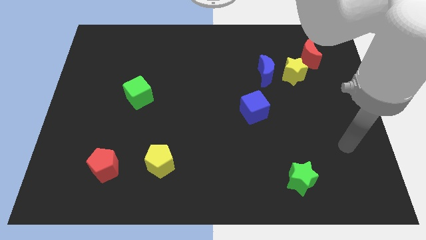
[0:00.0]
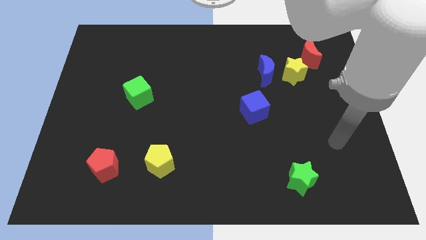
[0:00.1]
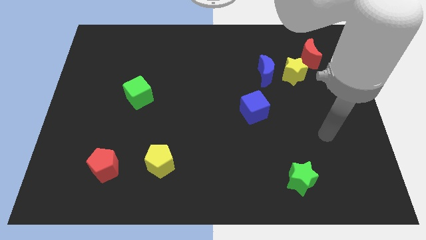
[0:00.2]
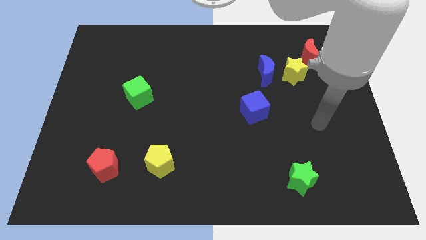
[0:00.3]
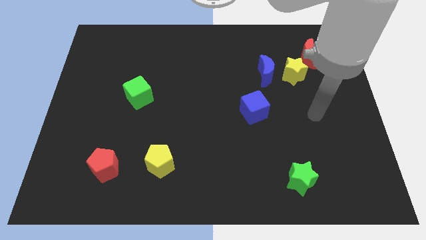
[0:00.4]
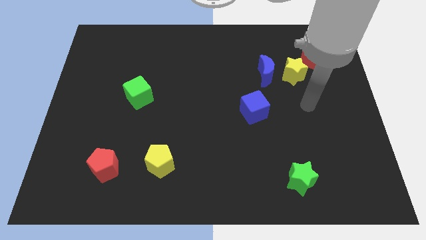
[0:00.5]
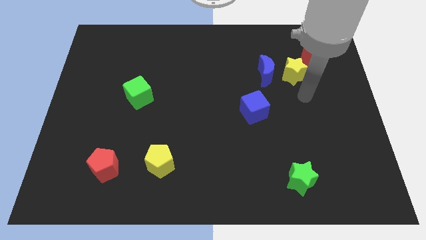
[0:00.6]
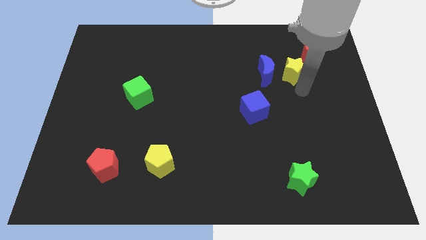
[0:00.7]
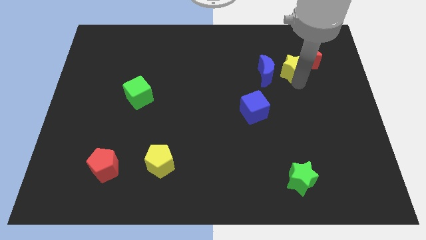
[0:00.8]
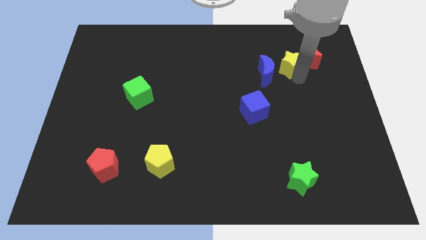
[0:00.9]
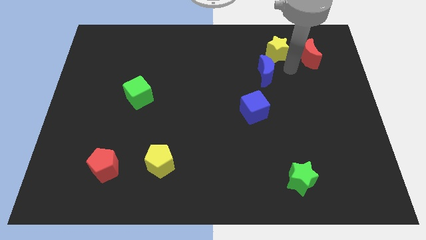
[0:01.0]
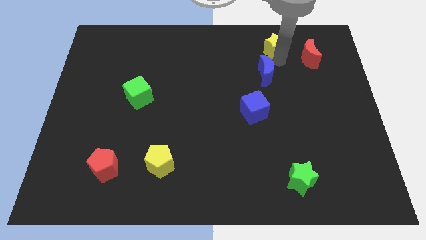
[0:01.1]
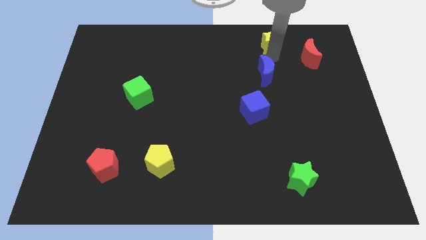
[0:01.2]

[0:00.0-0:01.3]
move the blue moon away from the yellow star

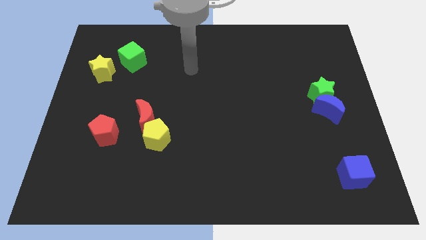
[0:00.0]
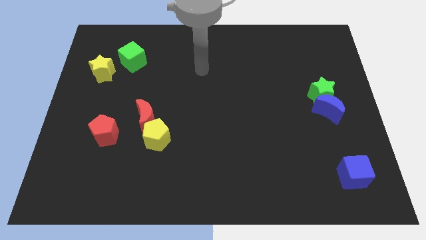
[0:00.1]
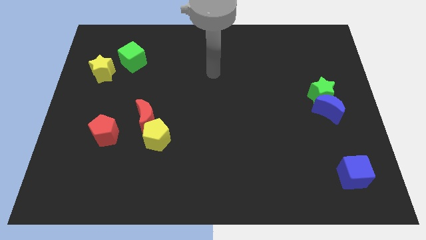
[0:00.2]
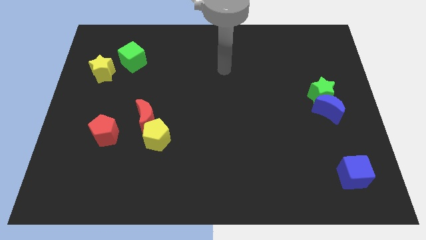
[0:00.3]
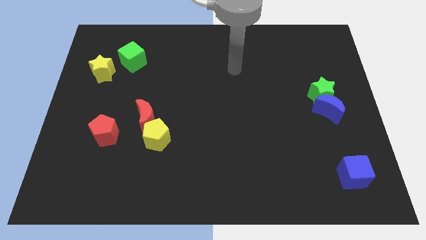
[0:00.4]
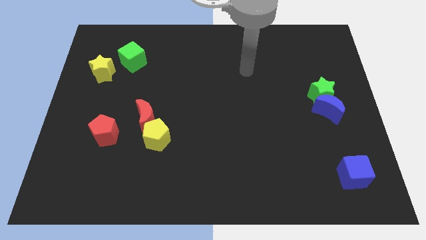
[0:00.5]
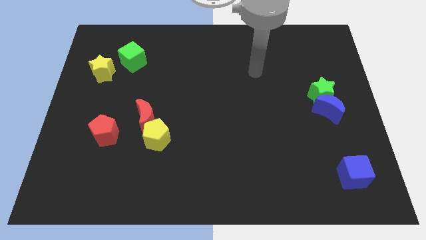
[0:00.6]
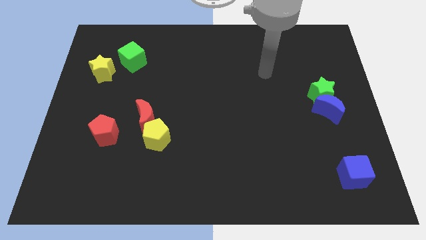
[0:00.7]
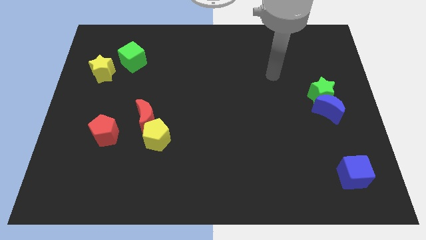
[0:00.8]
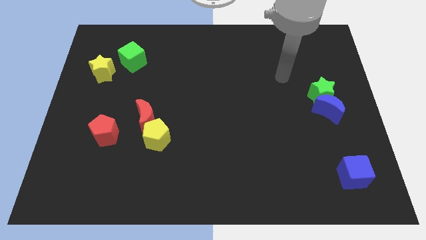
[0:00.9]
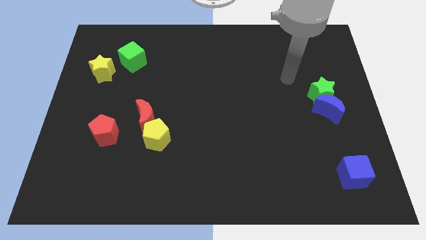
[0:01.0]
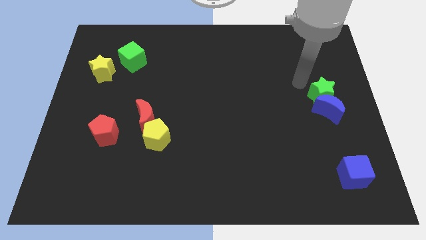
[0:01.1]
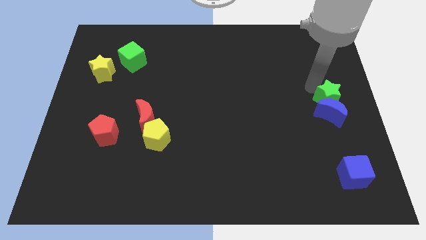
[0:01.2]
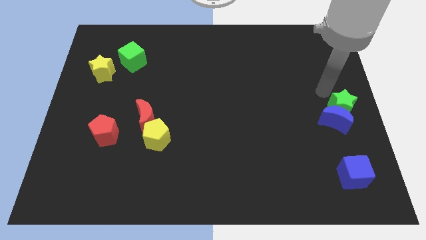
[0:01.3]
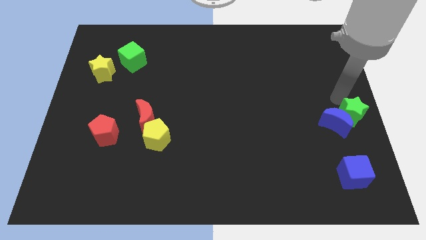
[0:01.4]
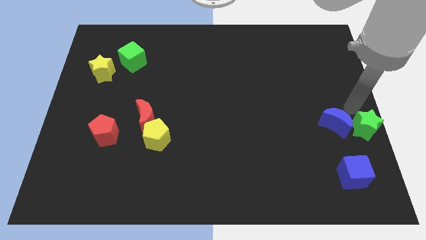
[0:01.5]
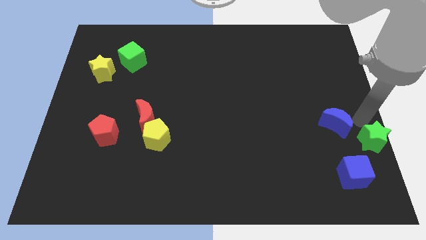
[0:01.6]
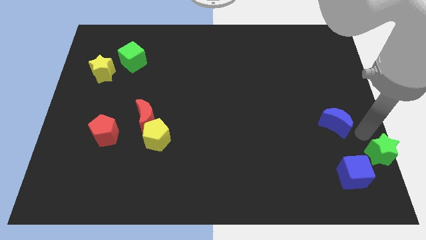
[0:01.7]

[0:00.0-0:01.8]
separate the blue moon from the green star

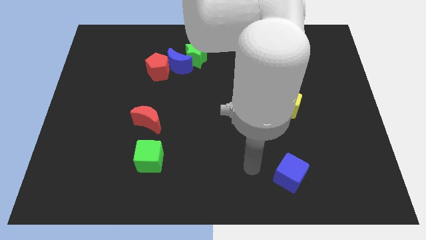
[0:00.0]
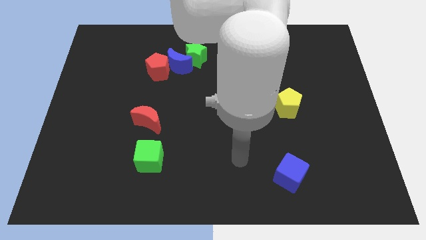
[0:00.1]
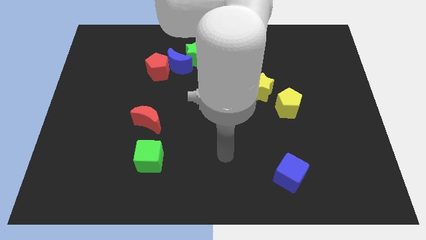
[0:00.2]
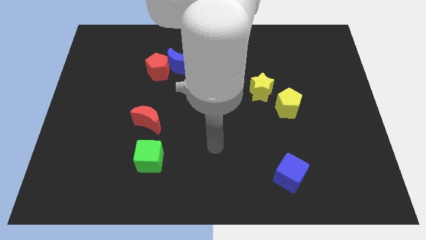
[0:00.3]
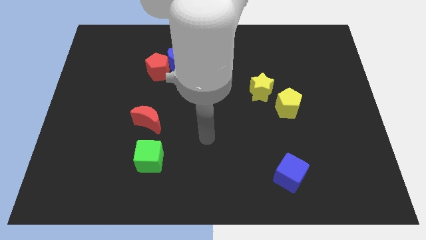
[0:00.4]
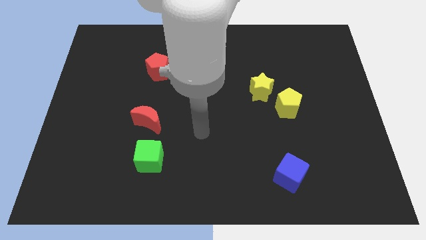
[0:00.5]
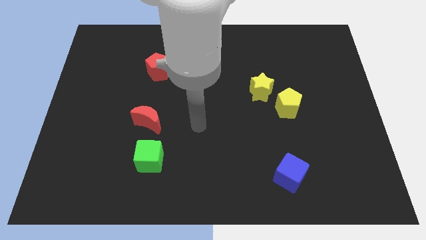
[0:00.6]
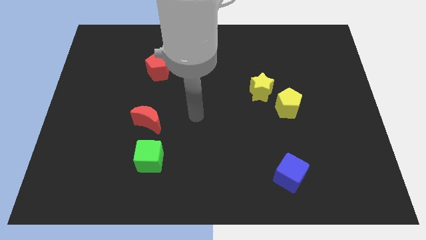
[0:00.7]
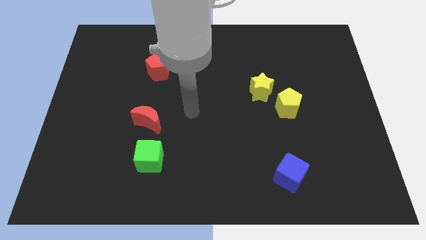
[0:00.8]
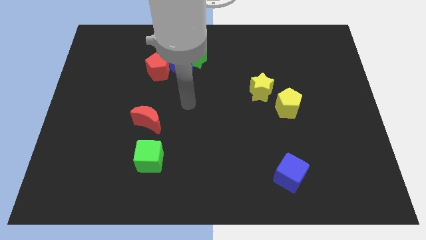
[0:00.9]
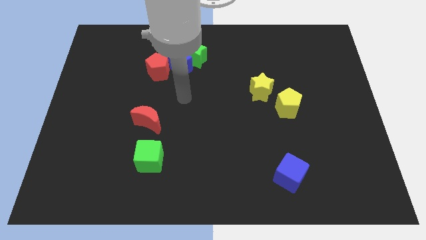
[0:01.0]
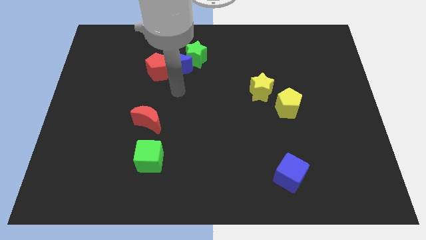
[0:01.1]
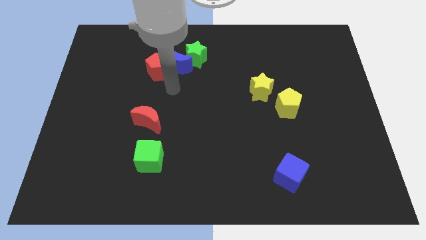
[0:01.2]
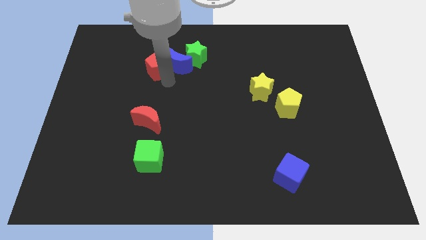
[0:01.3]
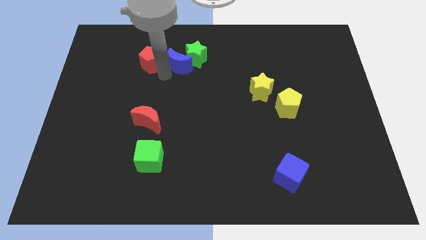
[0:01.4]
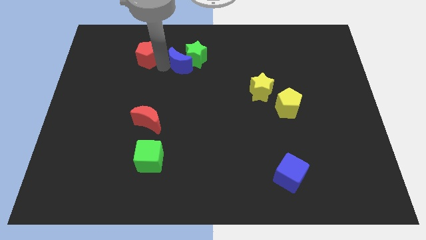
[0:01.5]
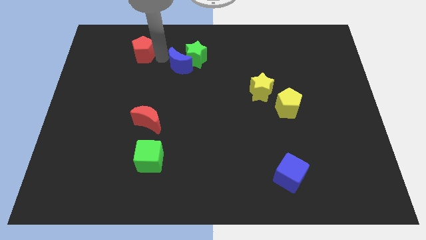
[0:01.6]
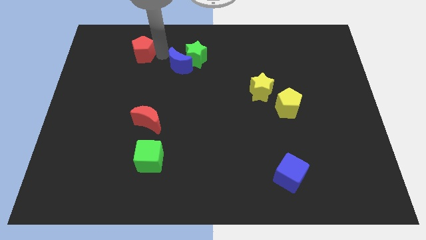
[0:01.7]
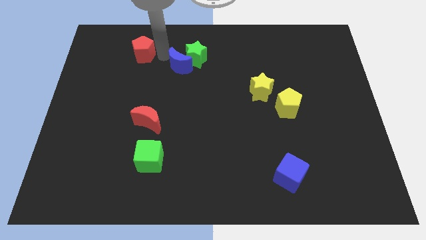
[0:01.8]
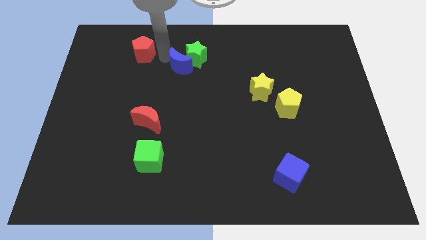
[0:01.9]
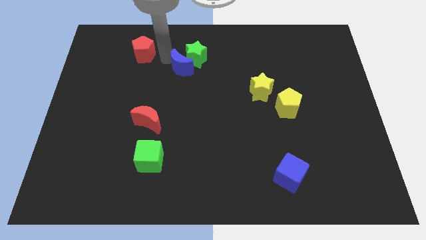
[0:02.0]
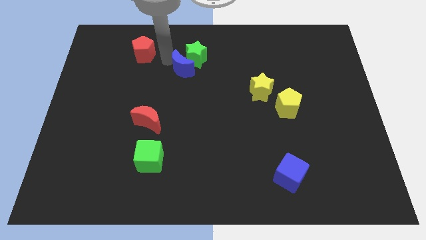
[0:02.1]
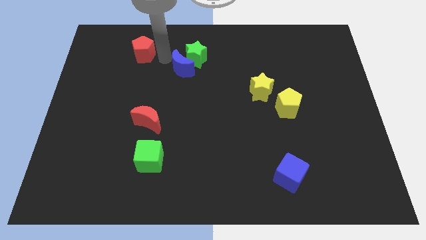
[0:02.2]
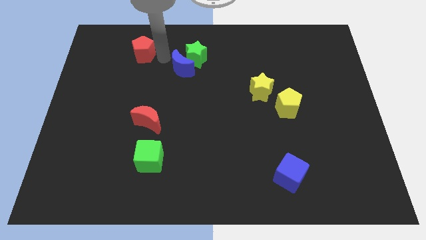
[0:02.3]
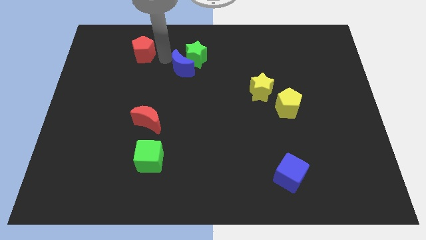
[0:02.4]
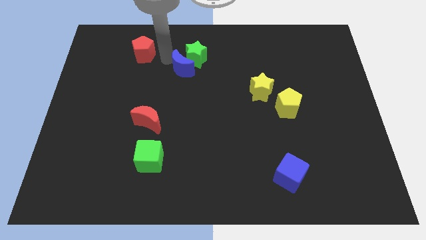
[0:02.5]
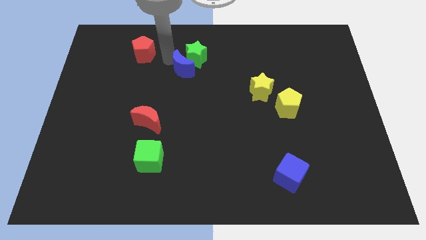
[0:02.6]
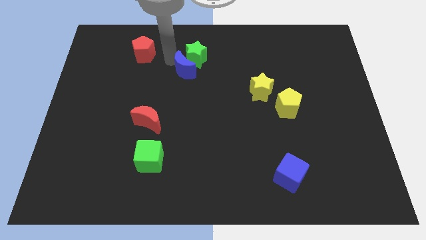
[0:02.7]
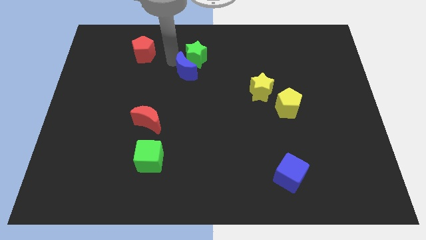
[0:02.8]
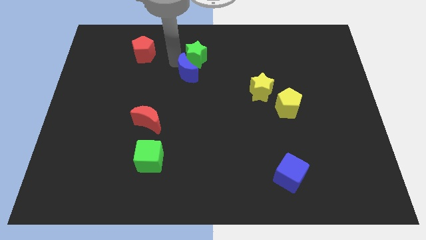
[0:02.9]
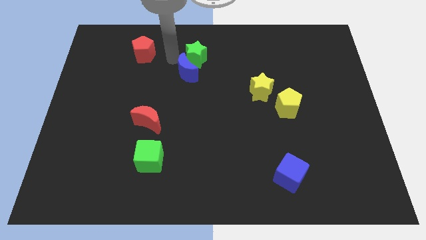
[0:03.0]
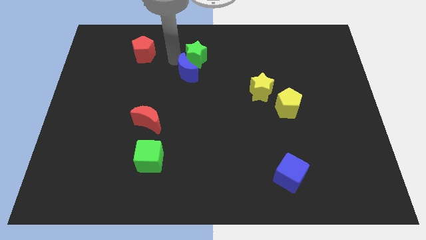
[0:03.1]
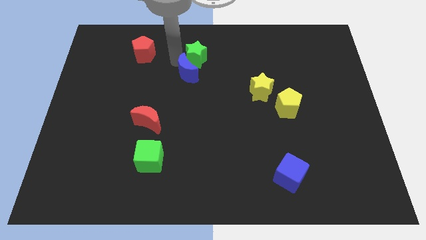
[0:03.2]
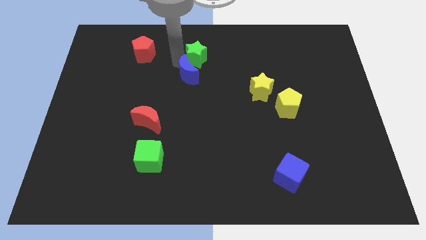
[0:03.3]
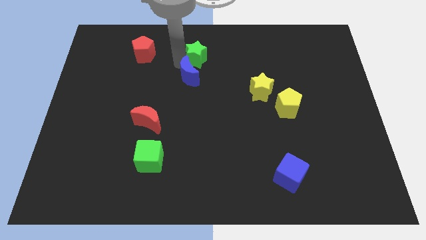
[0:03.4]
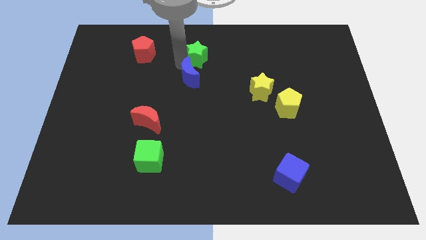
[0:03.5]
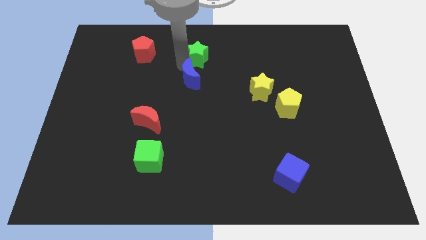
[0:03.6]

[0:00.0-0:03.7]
separate the blue moon from the green star and red pentagon

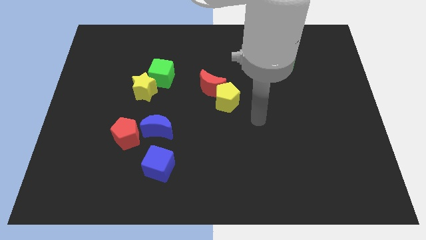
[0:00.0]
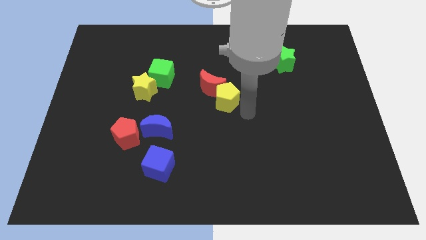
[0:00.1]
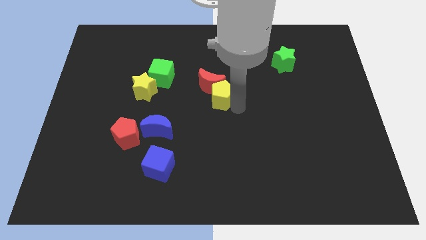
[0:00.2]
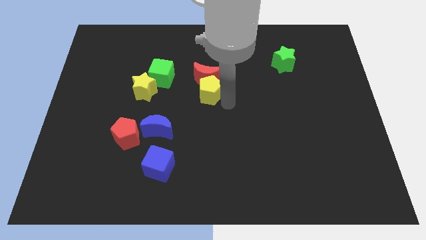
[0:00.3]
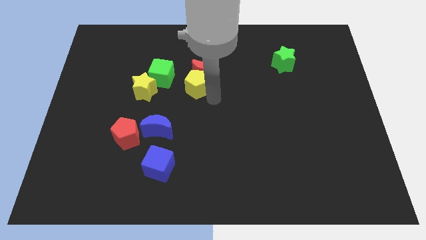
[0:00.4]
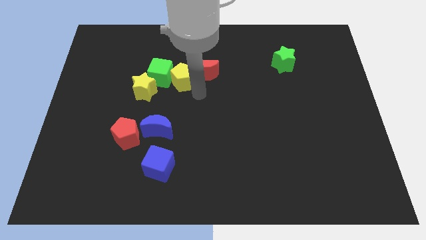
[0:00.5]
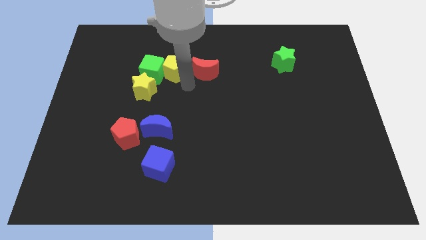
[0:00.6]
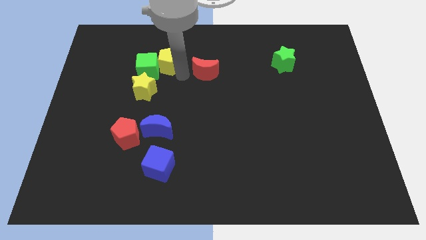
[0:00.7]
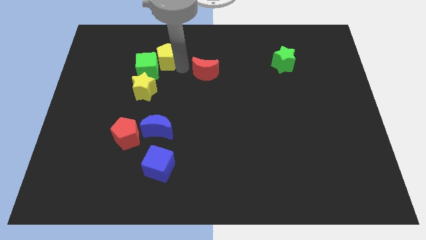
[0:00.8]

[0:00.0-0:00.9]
separate the red moon from the yellow pentagon

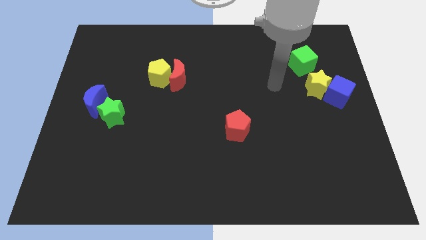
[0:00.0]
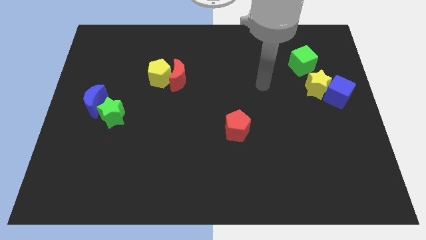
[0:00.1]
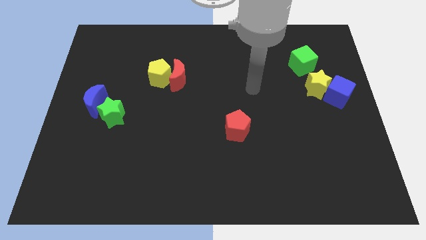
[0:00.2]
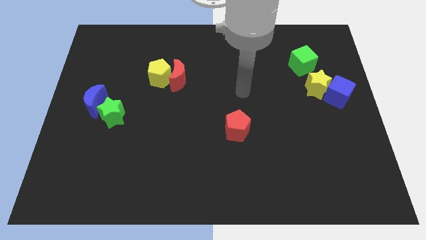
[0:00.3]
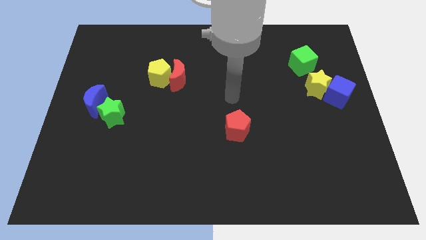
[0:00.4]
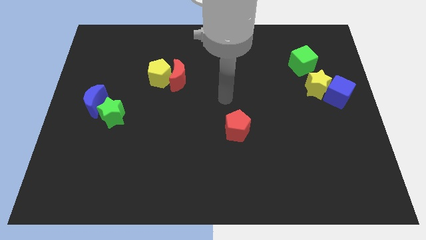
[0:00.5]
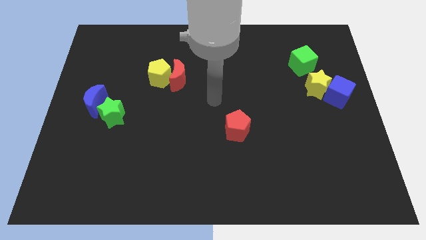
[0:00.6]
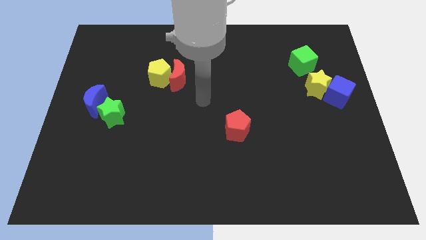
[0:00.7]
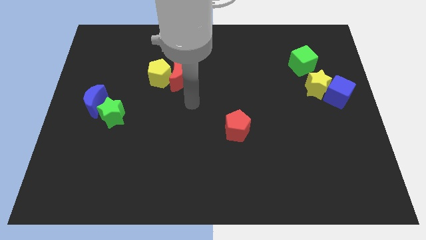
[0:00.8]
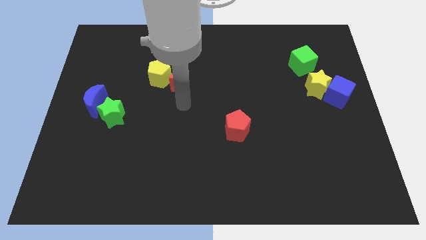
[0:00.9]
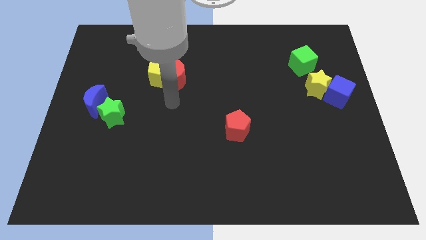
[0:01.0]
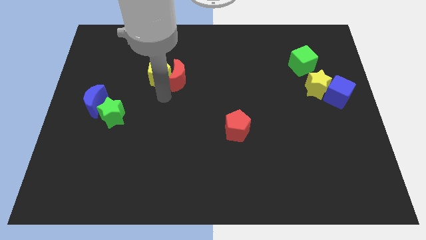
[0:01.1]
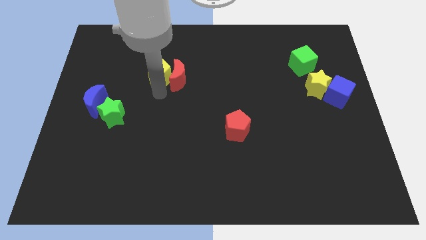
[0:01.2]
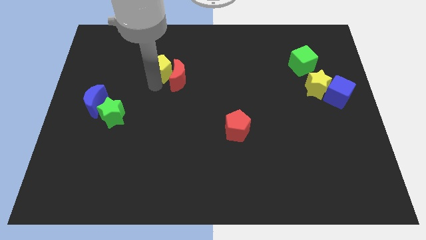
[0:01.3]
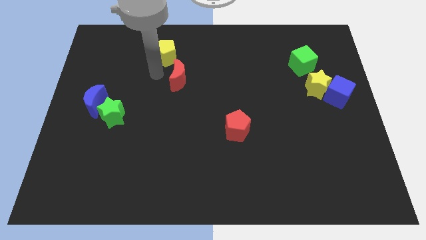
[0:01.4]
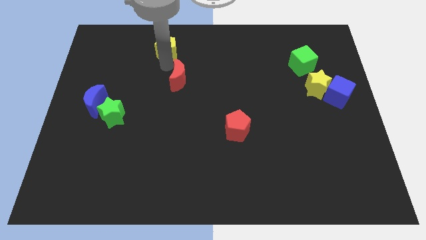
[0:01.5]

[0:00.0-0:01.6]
pull the red moon apart from the yellow pentagon
